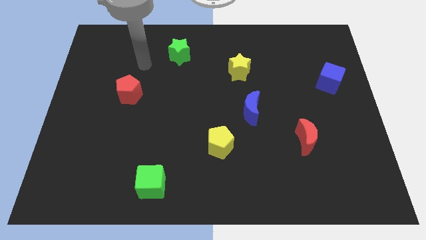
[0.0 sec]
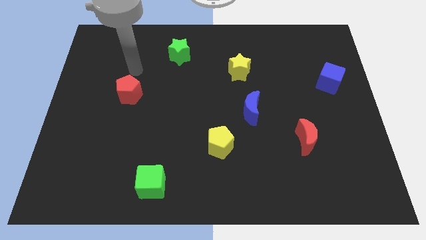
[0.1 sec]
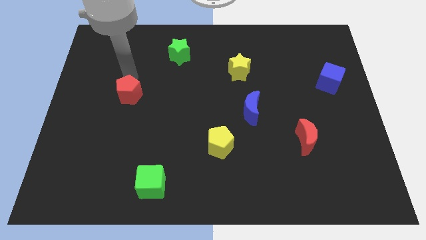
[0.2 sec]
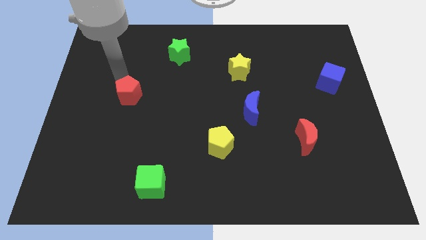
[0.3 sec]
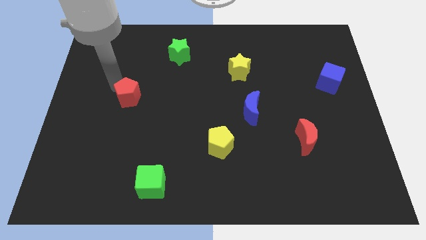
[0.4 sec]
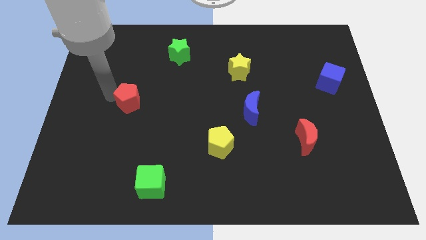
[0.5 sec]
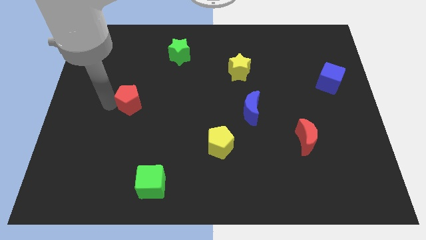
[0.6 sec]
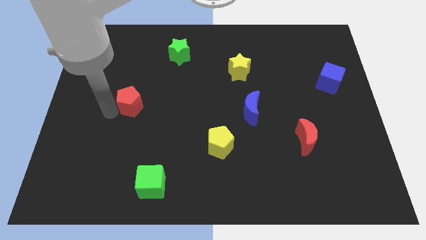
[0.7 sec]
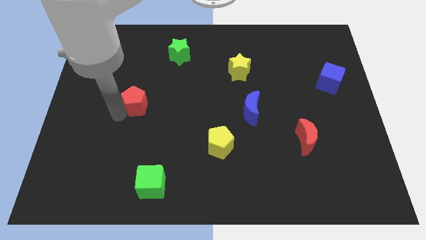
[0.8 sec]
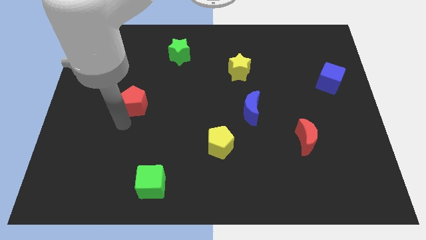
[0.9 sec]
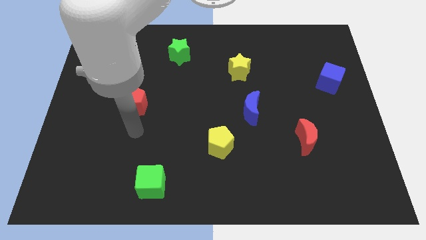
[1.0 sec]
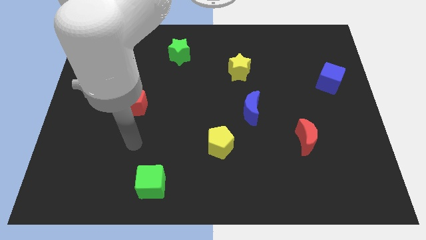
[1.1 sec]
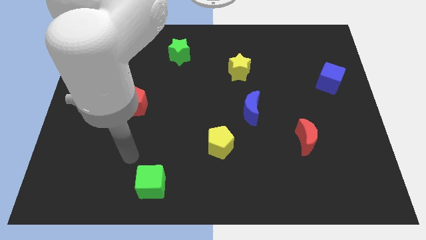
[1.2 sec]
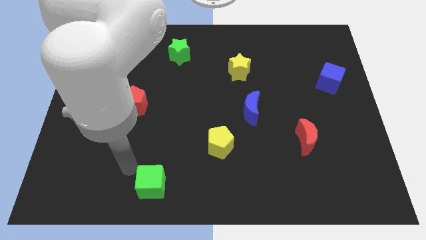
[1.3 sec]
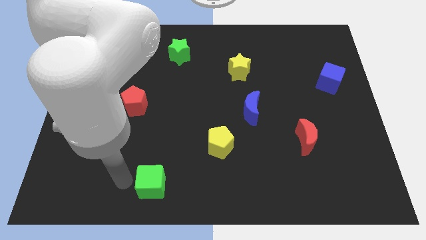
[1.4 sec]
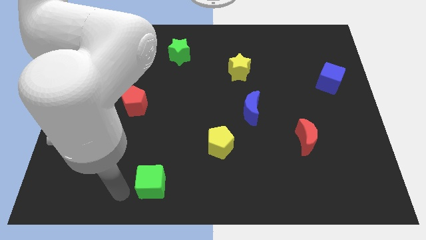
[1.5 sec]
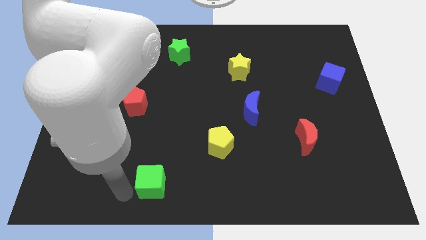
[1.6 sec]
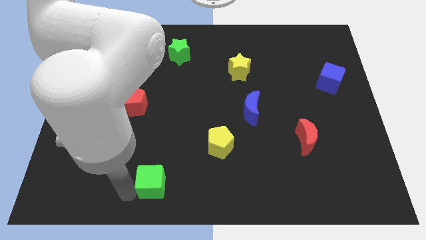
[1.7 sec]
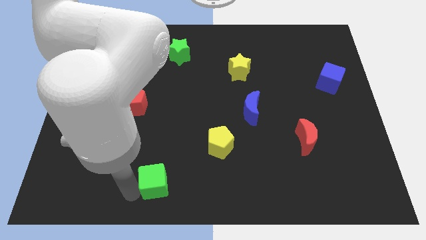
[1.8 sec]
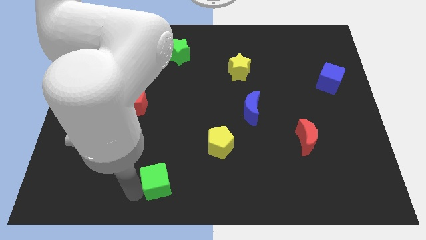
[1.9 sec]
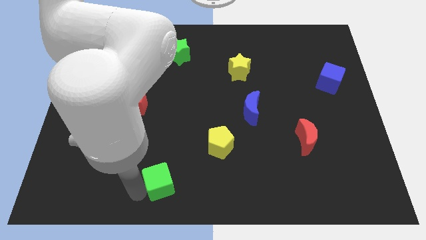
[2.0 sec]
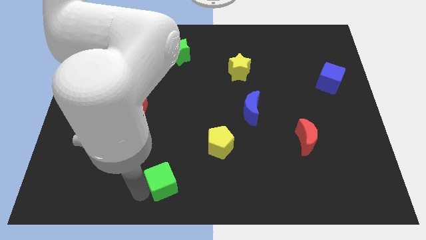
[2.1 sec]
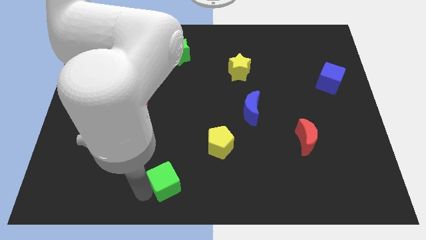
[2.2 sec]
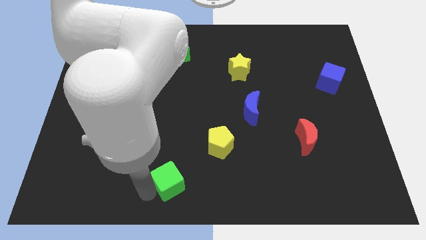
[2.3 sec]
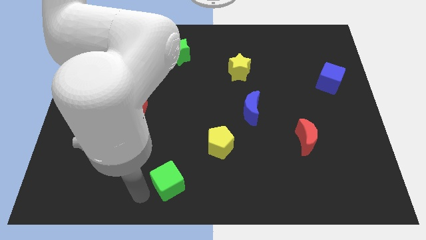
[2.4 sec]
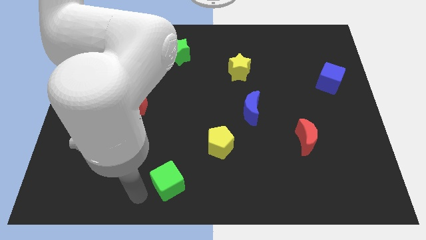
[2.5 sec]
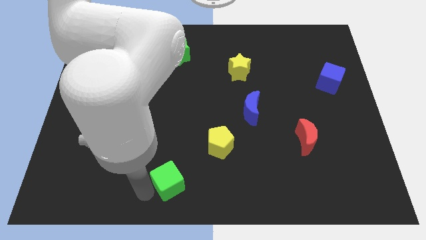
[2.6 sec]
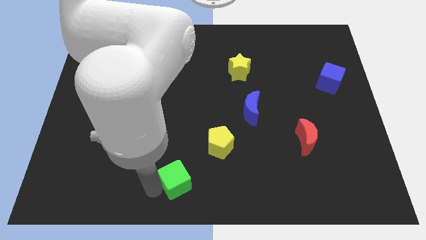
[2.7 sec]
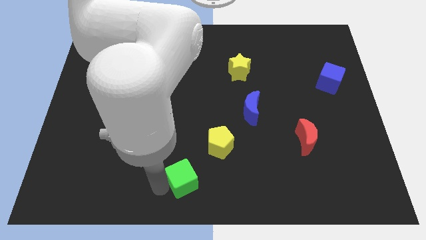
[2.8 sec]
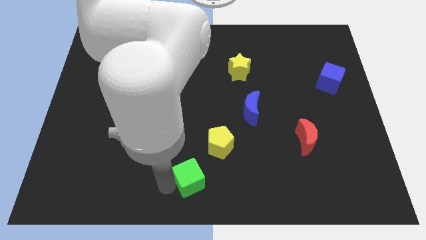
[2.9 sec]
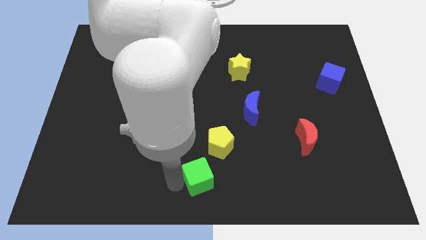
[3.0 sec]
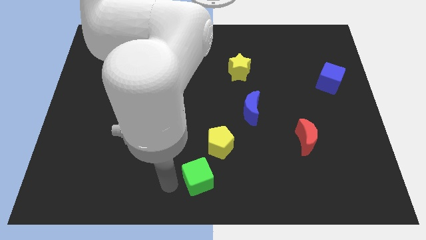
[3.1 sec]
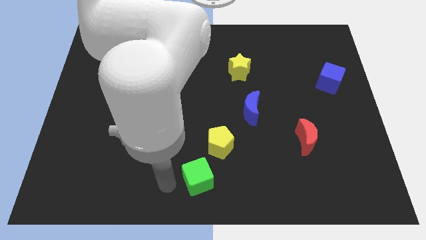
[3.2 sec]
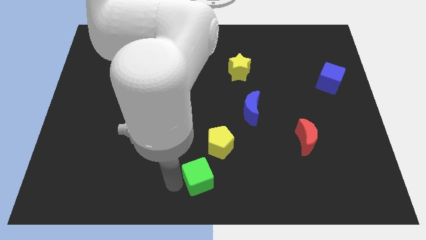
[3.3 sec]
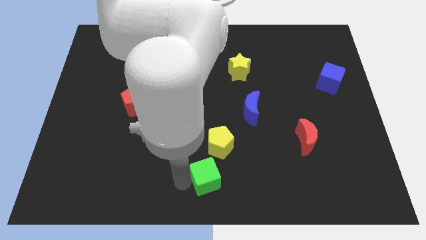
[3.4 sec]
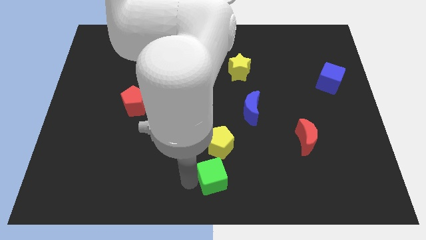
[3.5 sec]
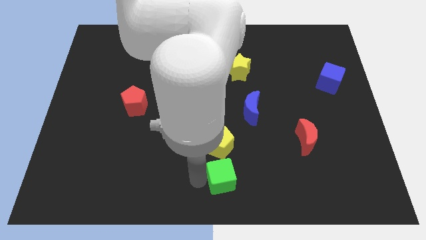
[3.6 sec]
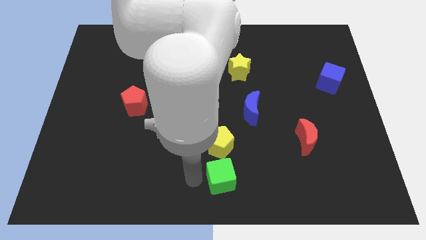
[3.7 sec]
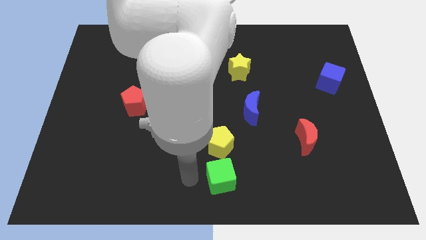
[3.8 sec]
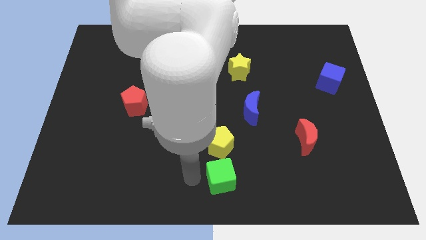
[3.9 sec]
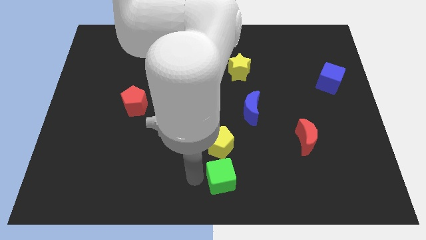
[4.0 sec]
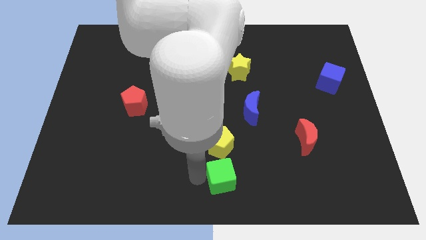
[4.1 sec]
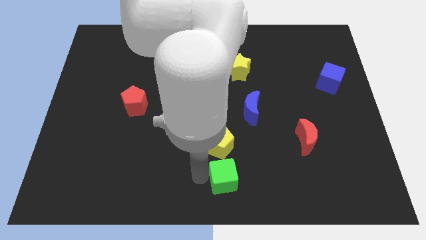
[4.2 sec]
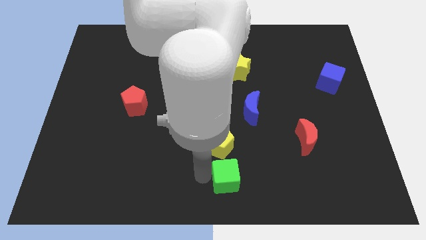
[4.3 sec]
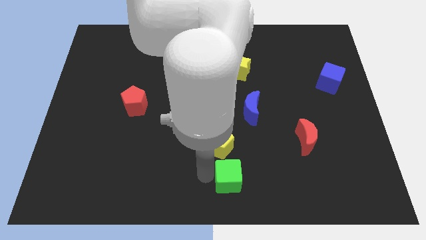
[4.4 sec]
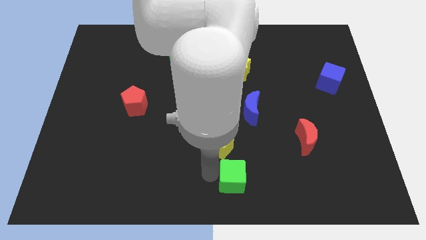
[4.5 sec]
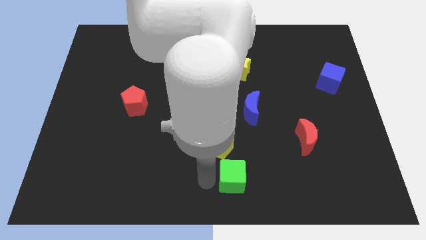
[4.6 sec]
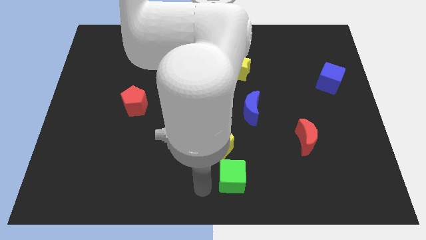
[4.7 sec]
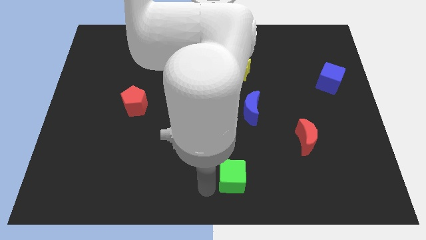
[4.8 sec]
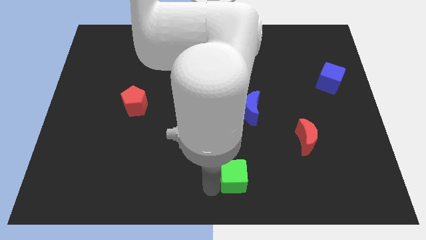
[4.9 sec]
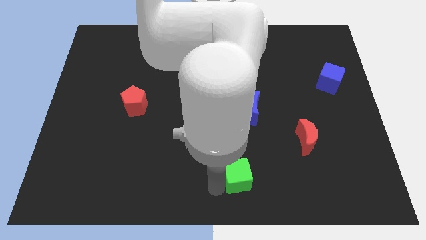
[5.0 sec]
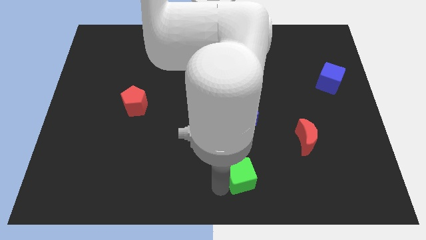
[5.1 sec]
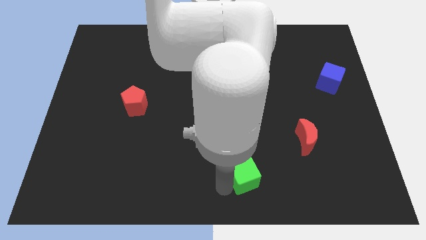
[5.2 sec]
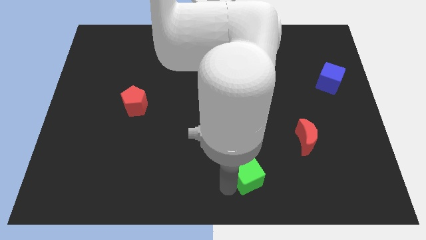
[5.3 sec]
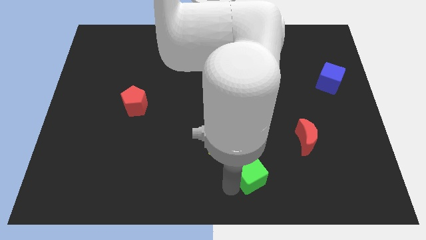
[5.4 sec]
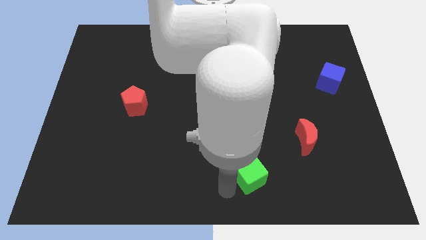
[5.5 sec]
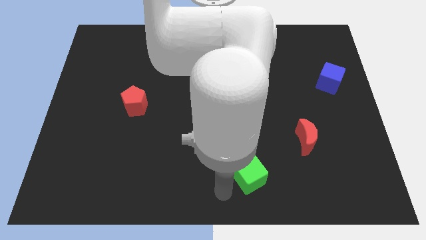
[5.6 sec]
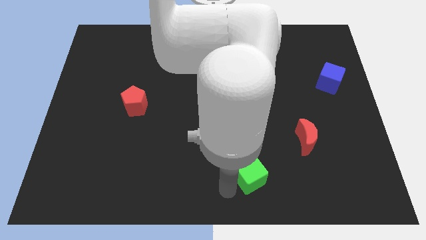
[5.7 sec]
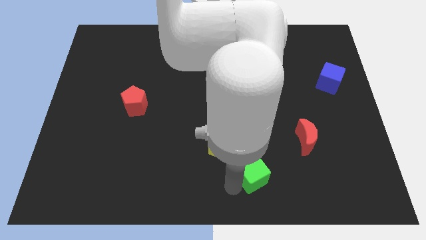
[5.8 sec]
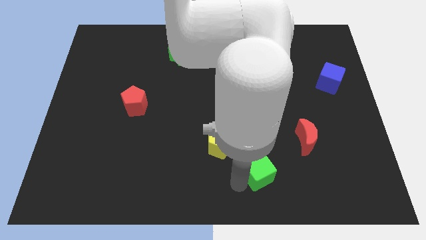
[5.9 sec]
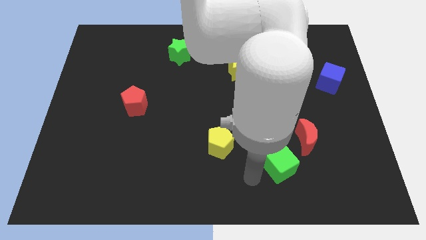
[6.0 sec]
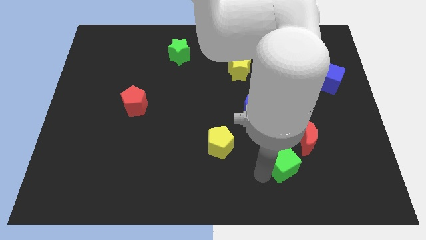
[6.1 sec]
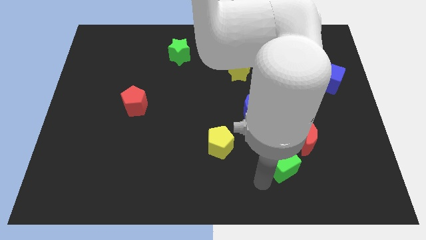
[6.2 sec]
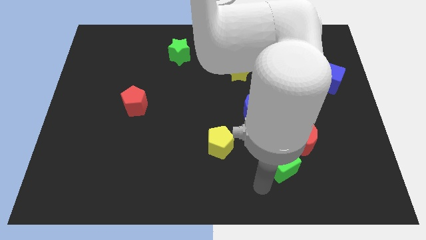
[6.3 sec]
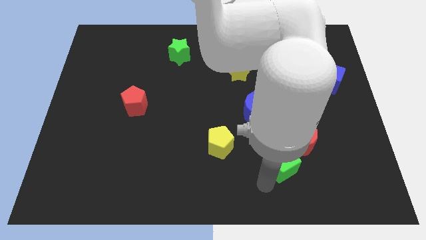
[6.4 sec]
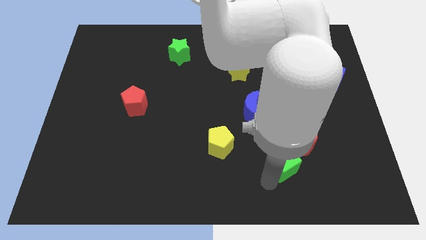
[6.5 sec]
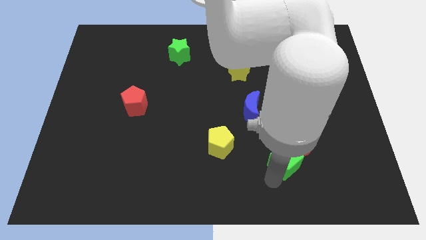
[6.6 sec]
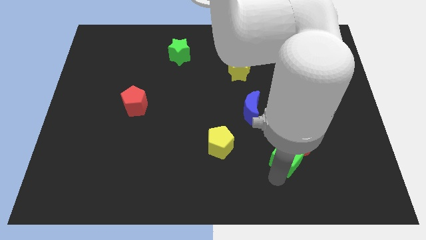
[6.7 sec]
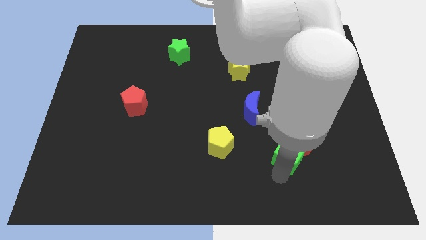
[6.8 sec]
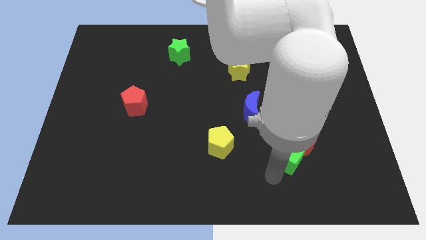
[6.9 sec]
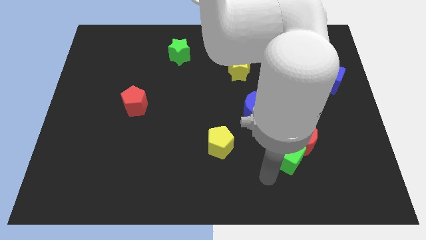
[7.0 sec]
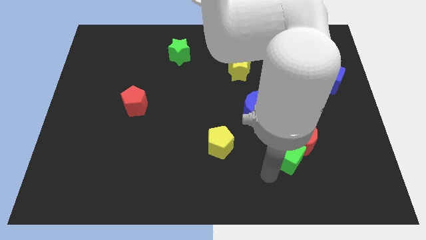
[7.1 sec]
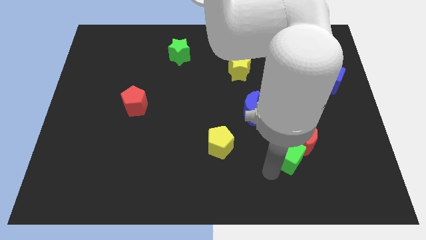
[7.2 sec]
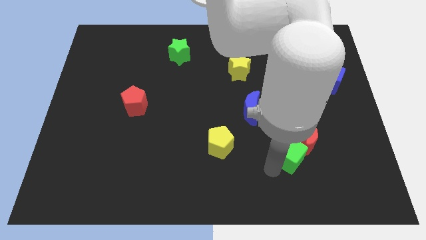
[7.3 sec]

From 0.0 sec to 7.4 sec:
move the green cube towards the red moon

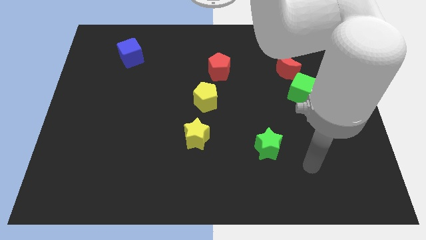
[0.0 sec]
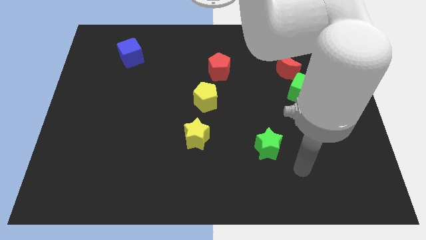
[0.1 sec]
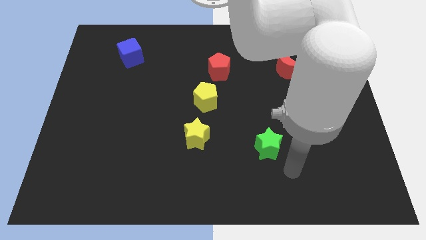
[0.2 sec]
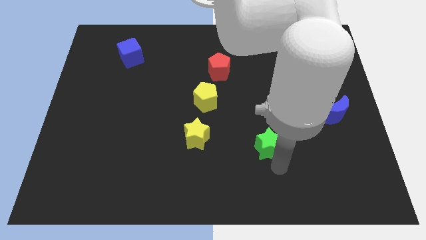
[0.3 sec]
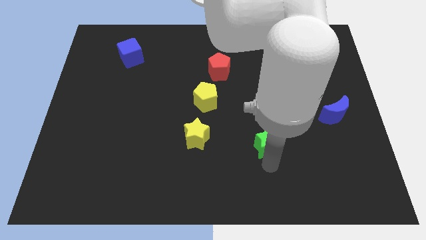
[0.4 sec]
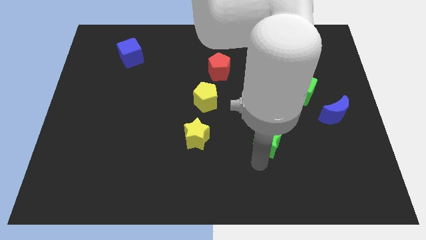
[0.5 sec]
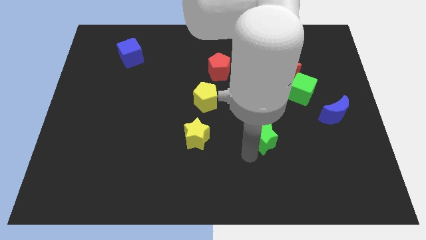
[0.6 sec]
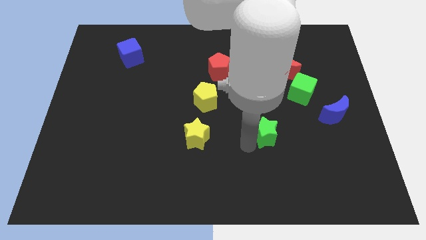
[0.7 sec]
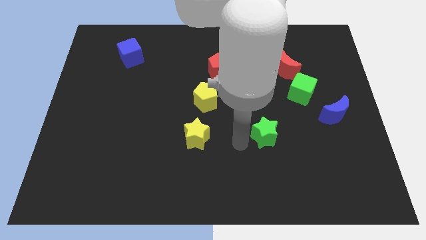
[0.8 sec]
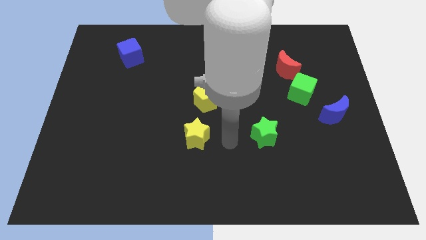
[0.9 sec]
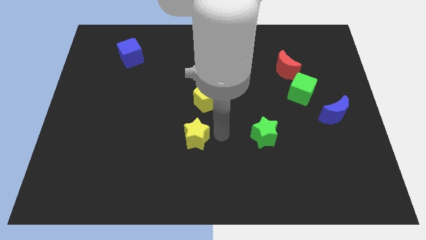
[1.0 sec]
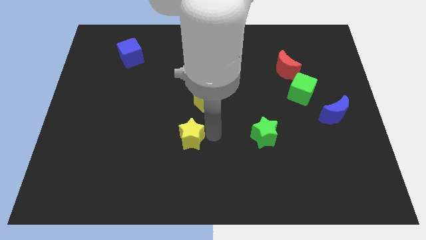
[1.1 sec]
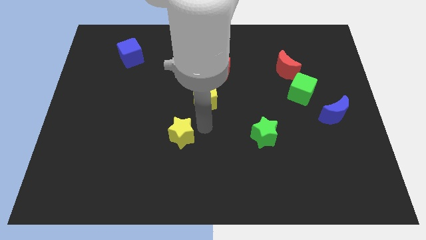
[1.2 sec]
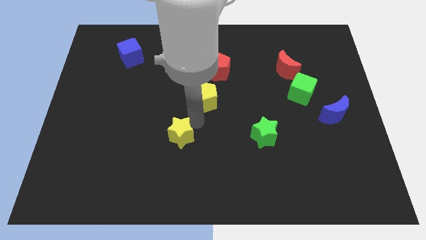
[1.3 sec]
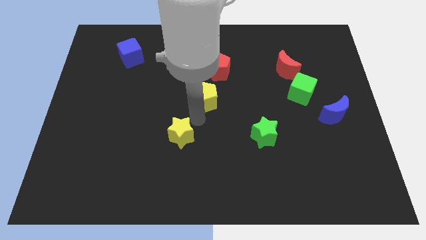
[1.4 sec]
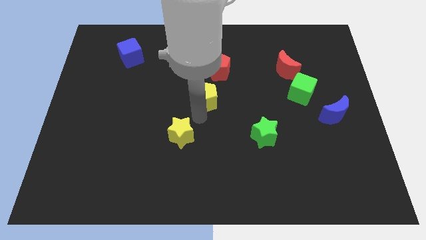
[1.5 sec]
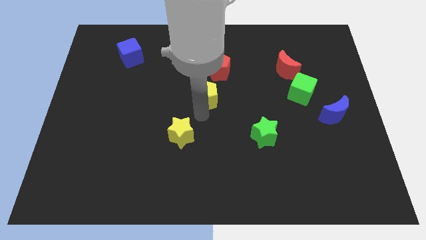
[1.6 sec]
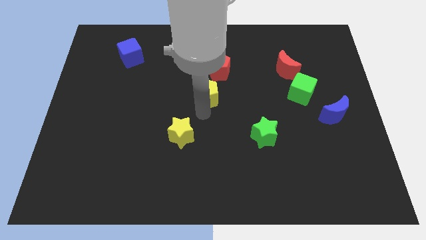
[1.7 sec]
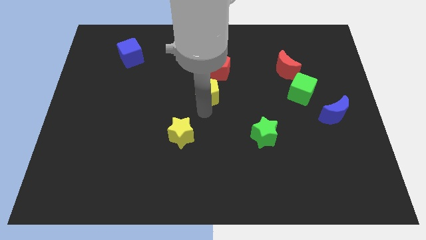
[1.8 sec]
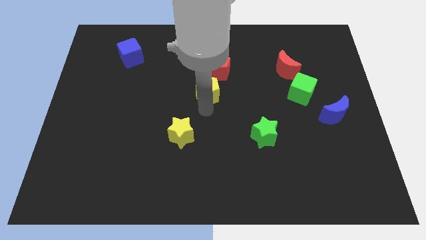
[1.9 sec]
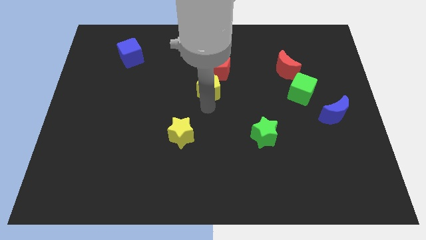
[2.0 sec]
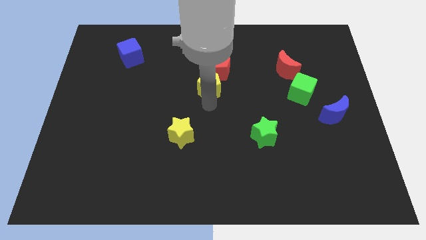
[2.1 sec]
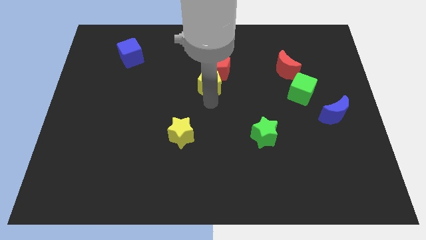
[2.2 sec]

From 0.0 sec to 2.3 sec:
put the yellow pentagon to the red pentagon
